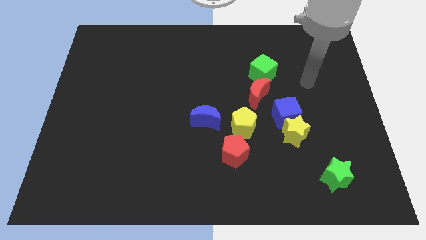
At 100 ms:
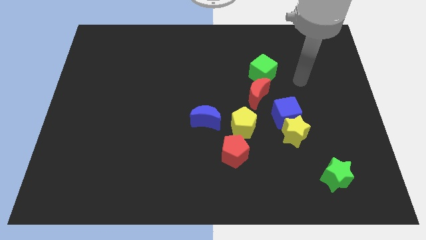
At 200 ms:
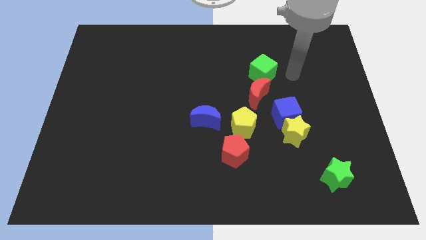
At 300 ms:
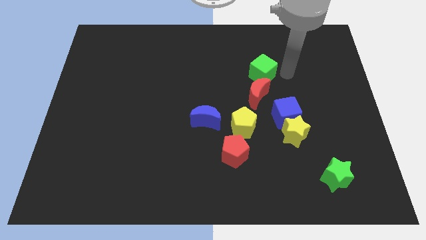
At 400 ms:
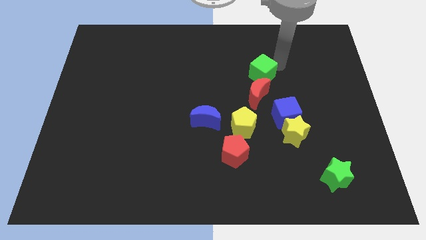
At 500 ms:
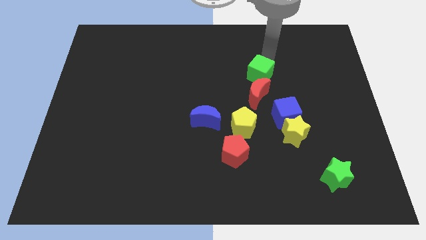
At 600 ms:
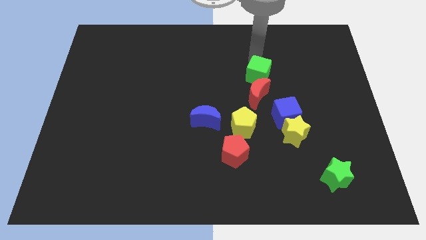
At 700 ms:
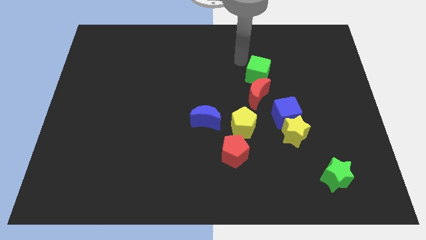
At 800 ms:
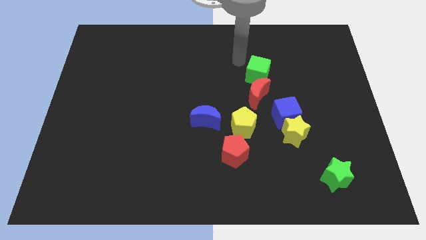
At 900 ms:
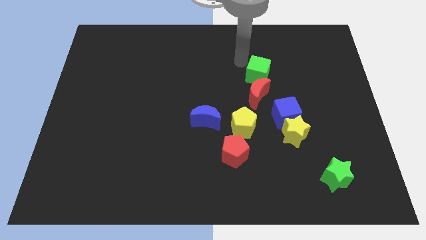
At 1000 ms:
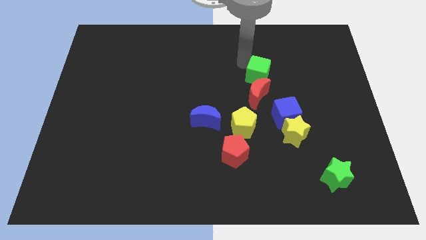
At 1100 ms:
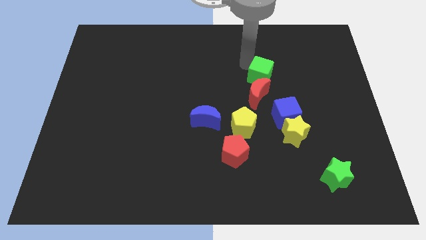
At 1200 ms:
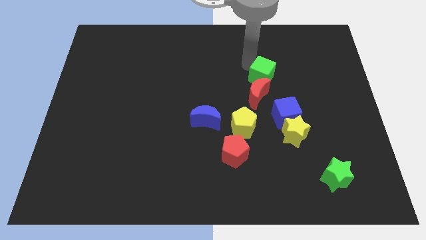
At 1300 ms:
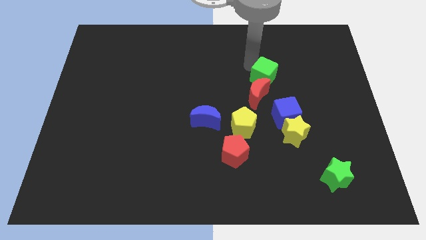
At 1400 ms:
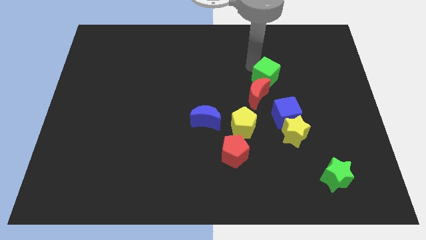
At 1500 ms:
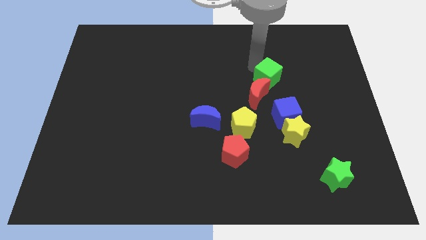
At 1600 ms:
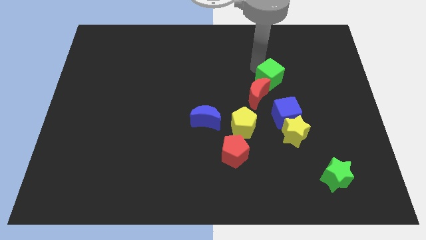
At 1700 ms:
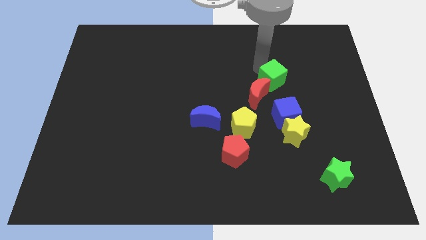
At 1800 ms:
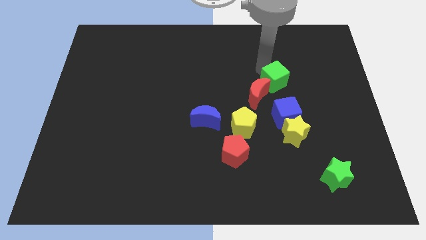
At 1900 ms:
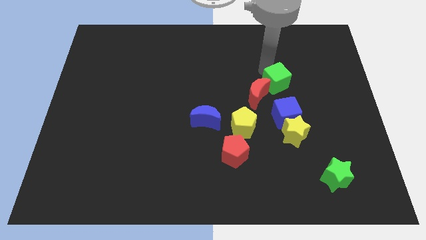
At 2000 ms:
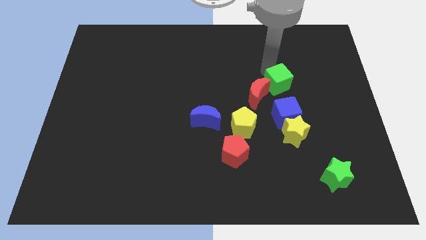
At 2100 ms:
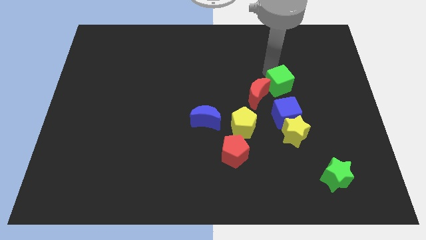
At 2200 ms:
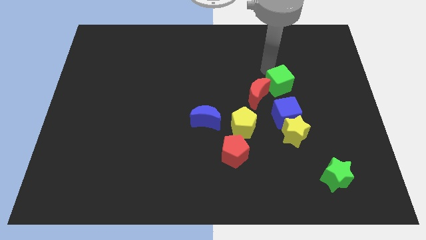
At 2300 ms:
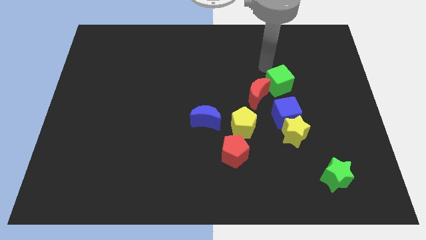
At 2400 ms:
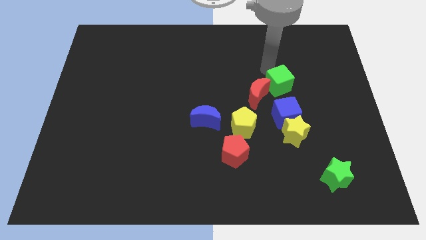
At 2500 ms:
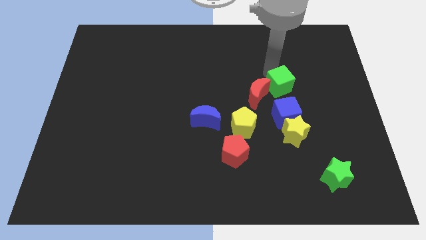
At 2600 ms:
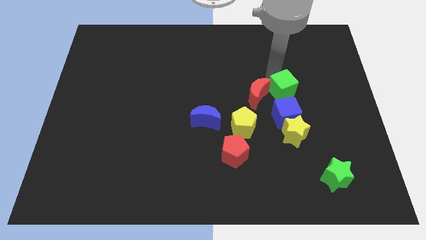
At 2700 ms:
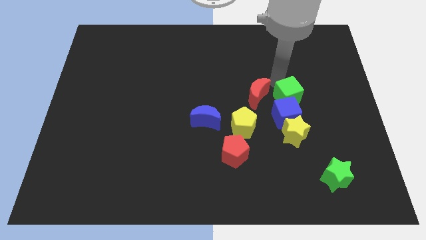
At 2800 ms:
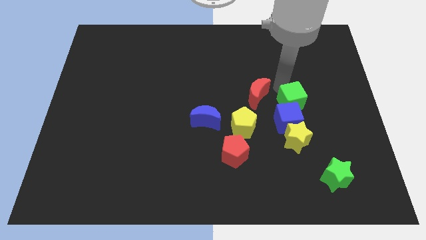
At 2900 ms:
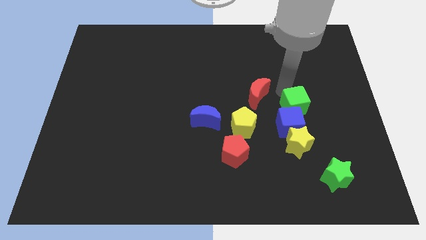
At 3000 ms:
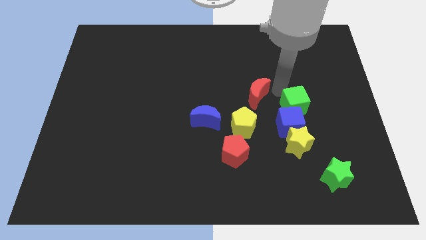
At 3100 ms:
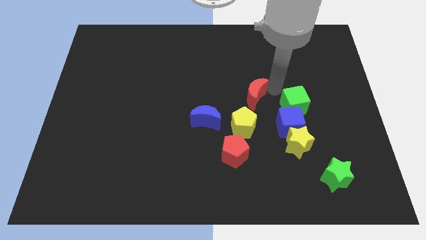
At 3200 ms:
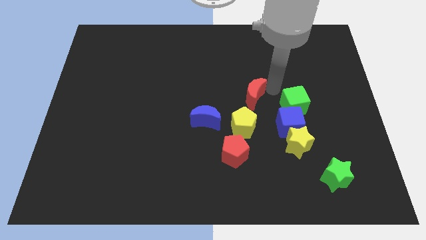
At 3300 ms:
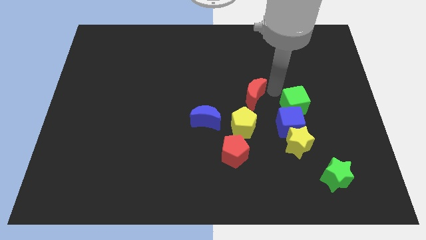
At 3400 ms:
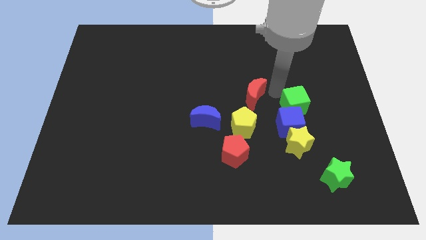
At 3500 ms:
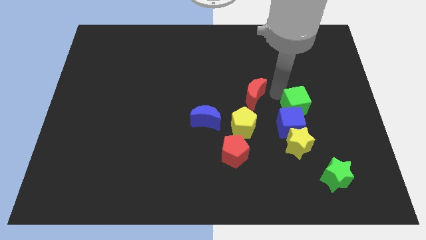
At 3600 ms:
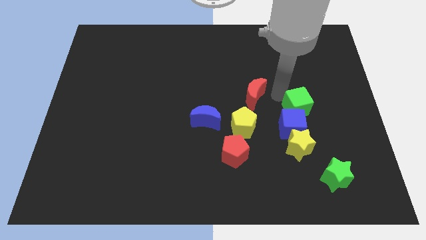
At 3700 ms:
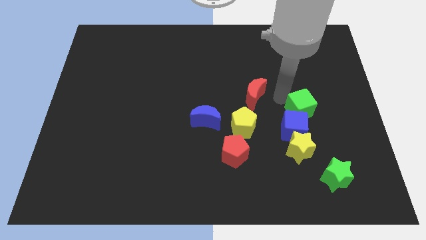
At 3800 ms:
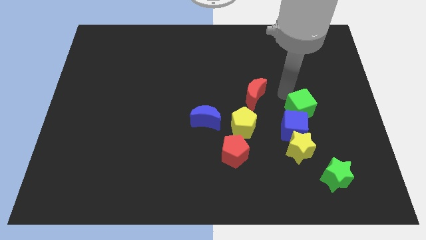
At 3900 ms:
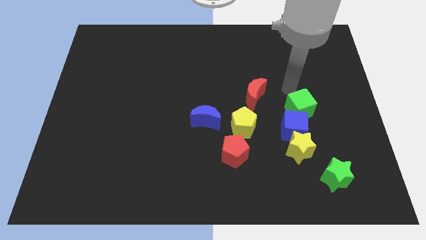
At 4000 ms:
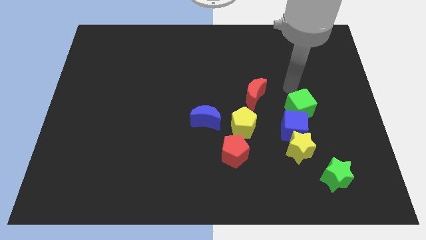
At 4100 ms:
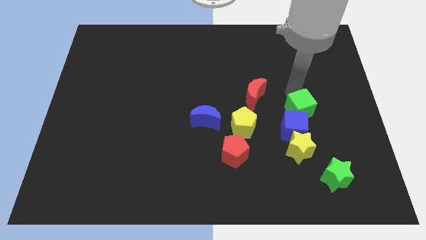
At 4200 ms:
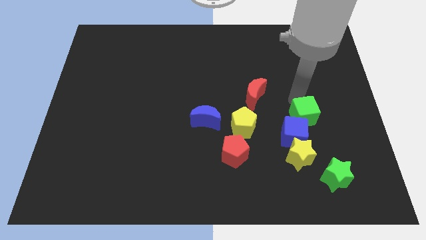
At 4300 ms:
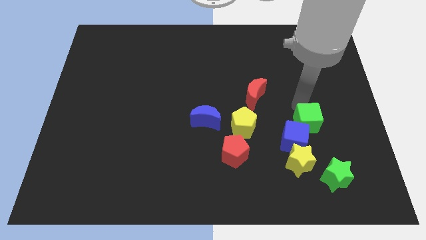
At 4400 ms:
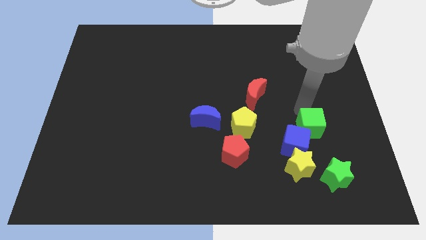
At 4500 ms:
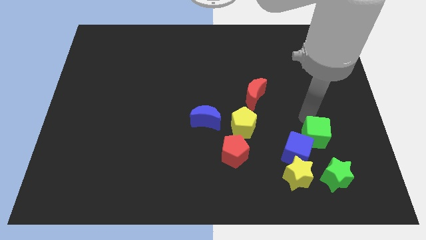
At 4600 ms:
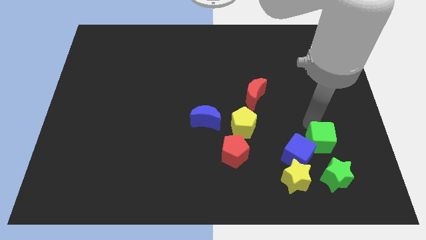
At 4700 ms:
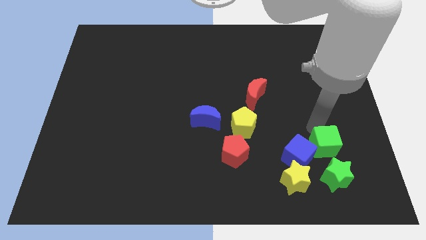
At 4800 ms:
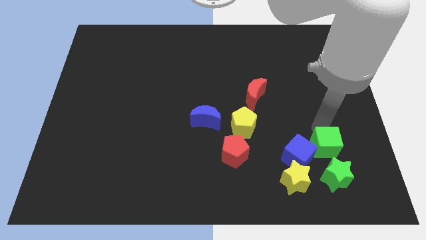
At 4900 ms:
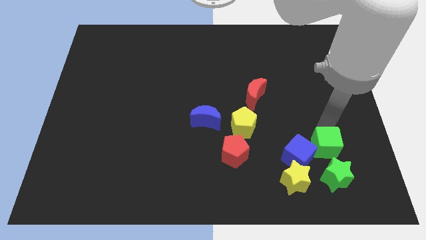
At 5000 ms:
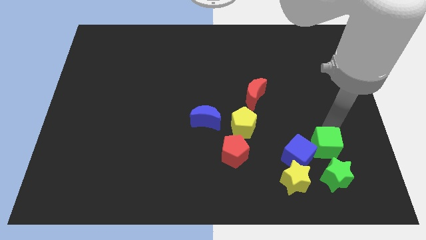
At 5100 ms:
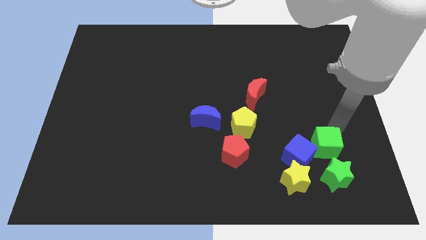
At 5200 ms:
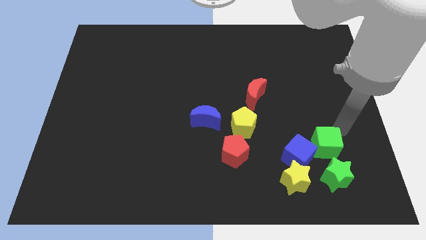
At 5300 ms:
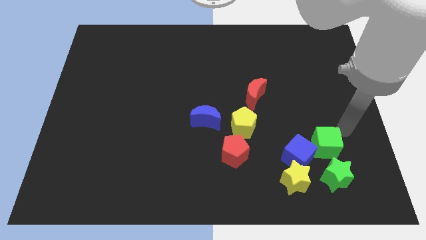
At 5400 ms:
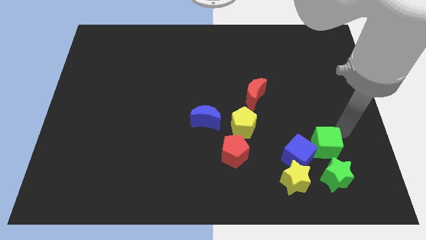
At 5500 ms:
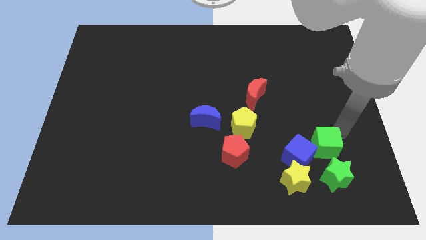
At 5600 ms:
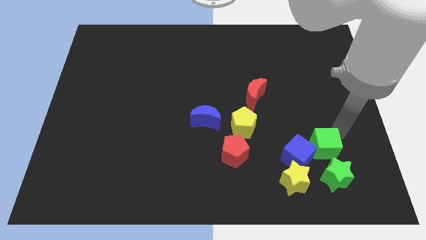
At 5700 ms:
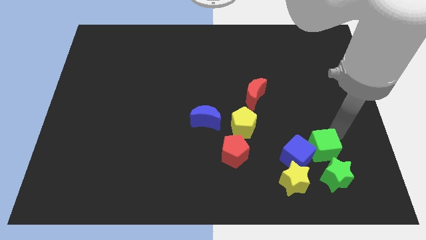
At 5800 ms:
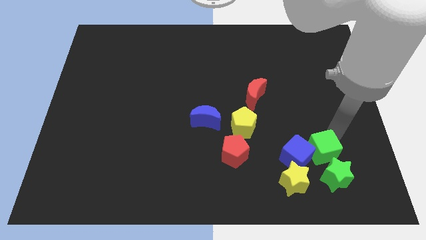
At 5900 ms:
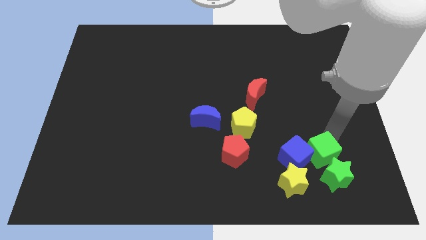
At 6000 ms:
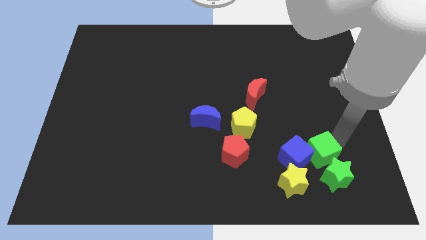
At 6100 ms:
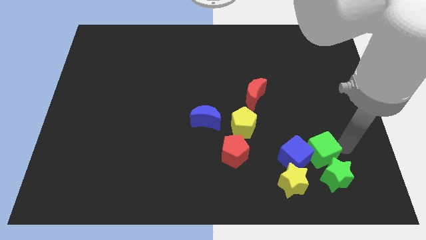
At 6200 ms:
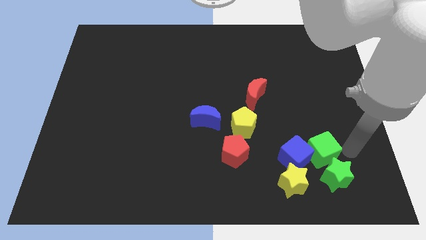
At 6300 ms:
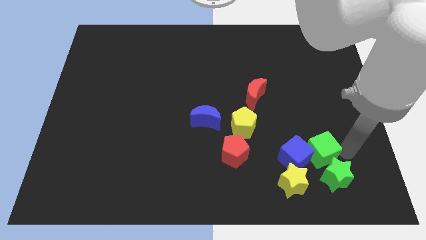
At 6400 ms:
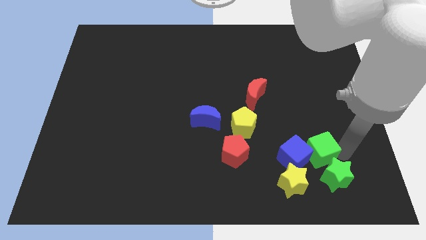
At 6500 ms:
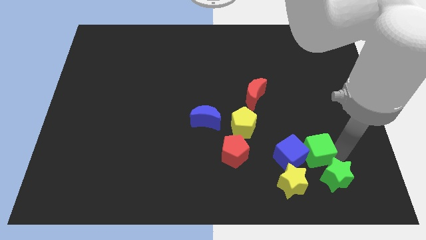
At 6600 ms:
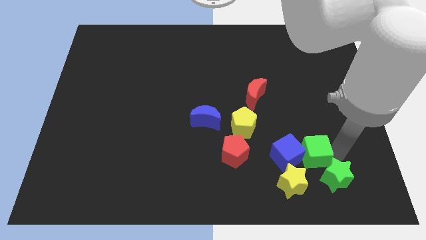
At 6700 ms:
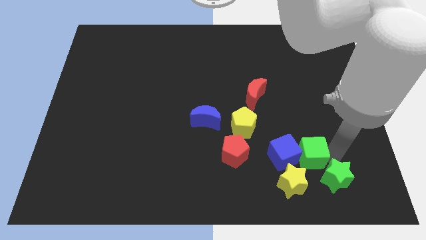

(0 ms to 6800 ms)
move the green cube to the right side of the red pentagon
